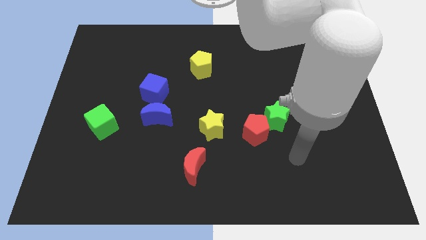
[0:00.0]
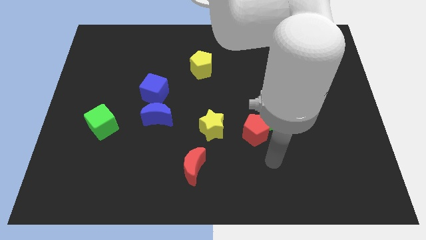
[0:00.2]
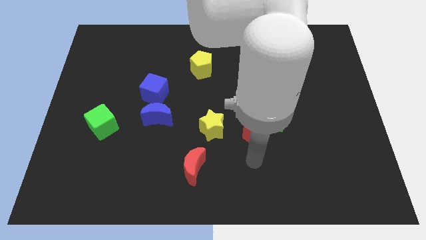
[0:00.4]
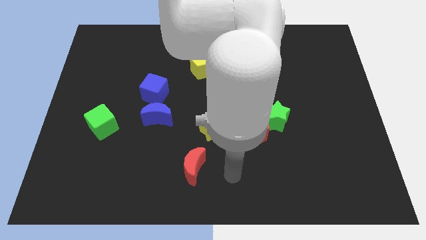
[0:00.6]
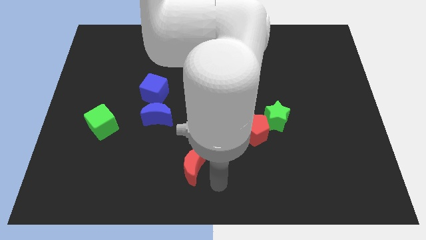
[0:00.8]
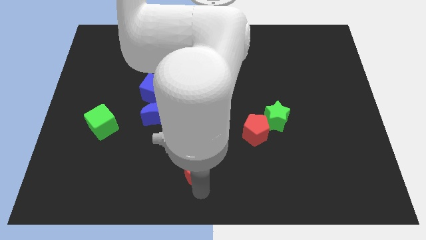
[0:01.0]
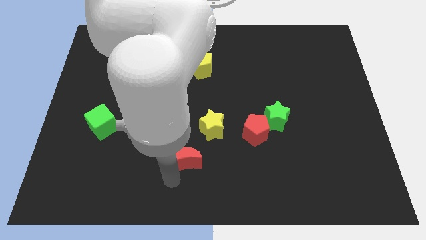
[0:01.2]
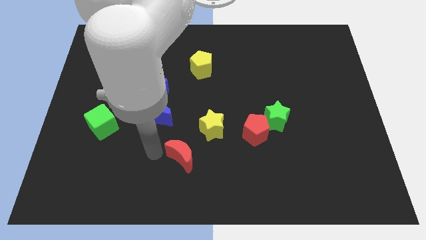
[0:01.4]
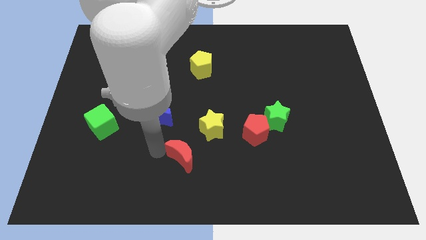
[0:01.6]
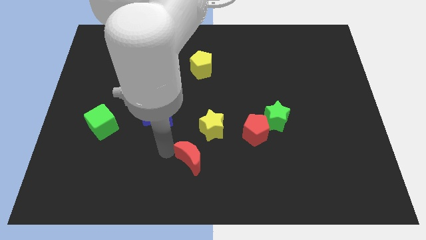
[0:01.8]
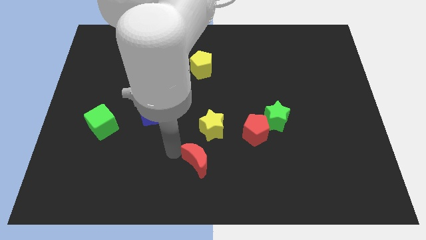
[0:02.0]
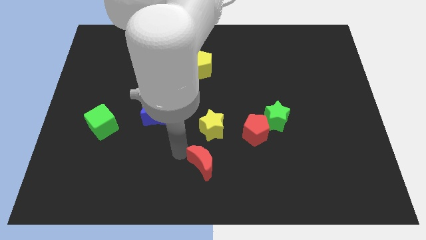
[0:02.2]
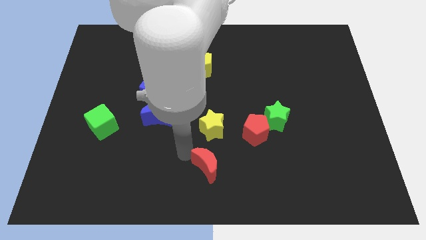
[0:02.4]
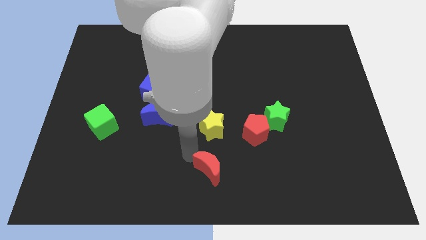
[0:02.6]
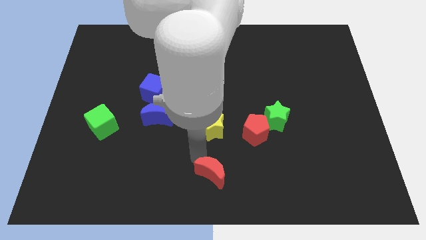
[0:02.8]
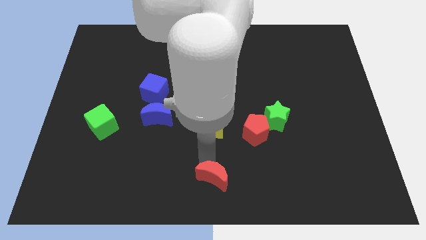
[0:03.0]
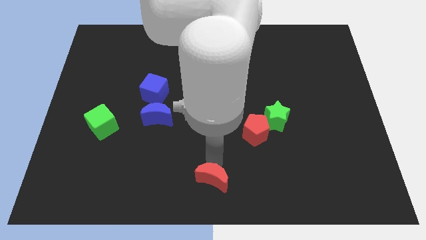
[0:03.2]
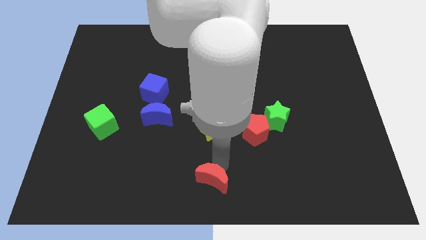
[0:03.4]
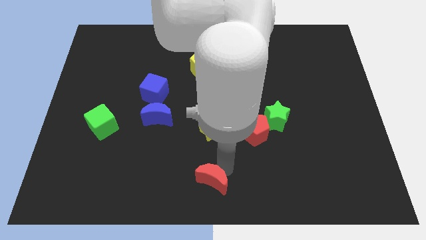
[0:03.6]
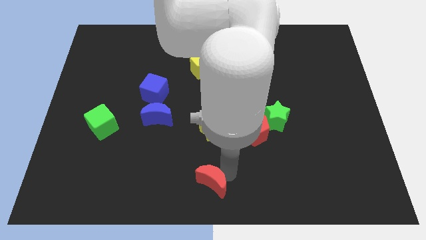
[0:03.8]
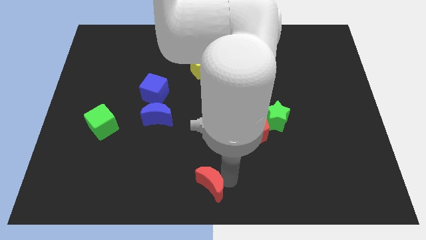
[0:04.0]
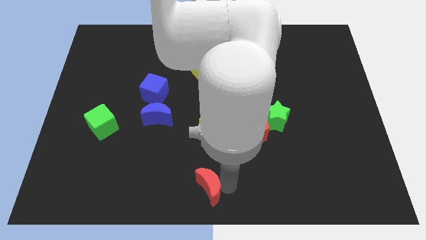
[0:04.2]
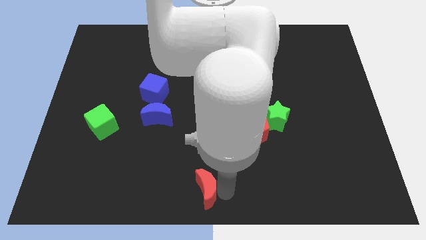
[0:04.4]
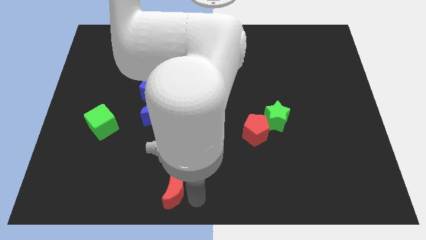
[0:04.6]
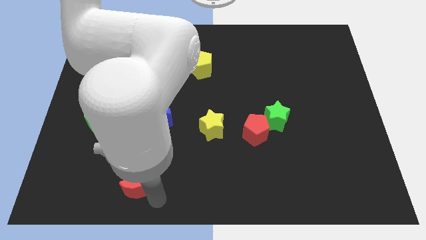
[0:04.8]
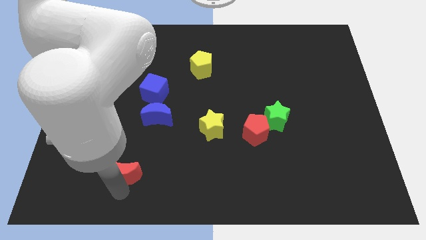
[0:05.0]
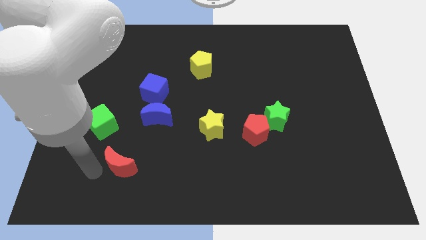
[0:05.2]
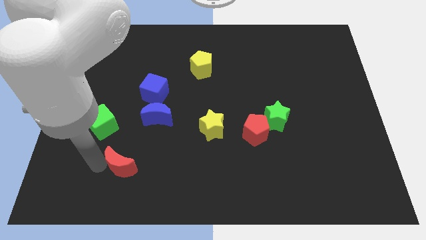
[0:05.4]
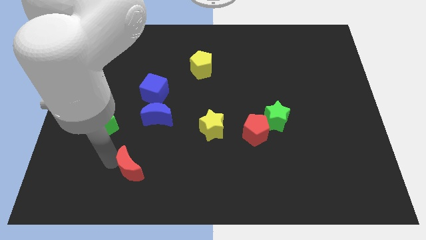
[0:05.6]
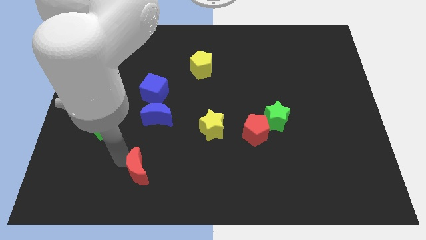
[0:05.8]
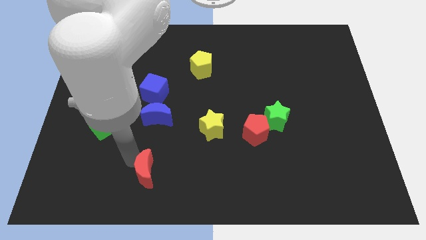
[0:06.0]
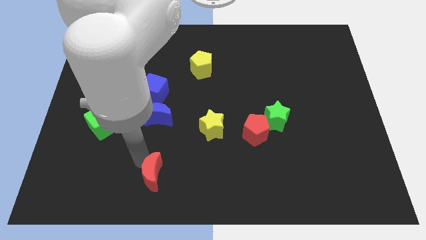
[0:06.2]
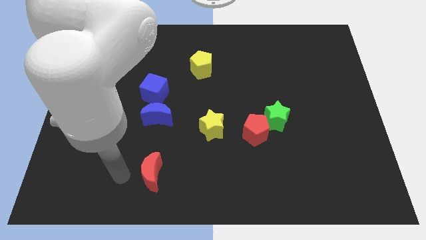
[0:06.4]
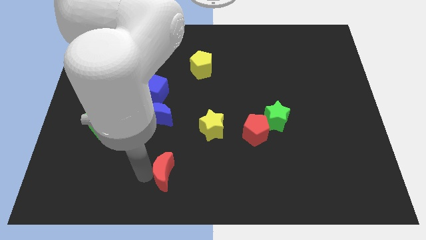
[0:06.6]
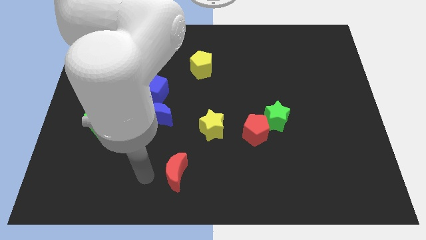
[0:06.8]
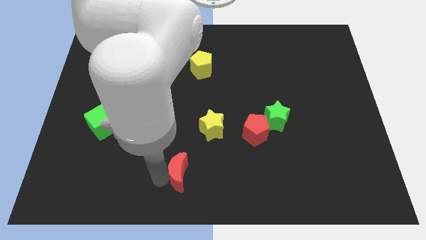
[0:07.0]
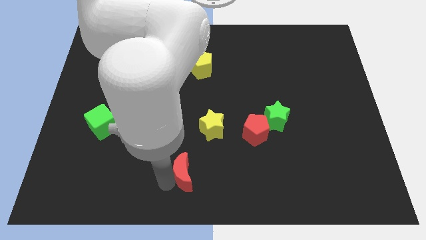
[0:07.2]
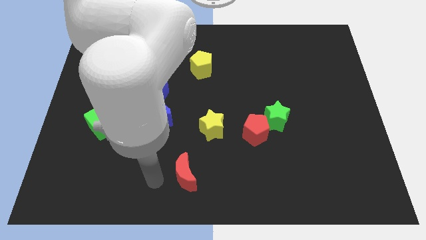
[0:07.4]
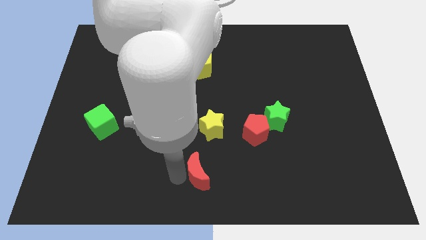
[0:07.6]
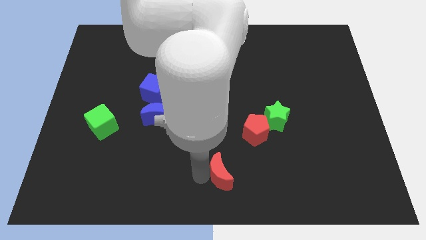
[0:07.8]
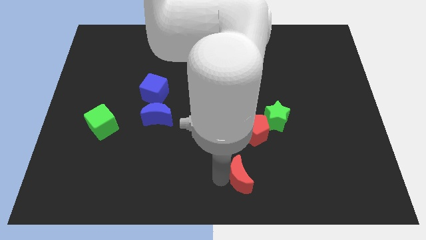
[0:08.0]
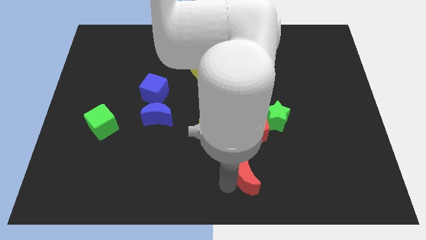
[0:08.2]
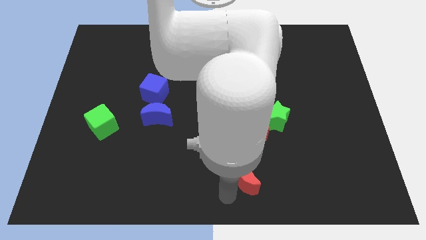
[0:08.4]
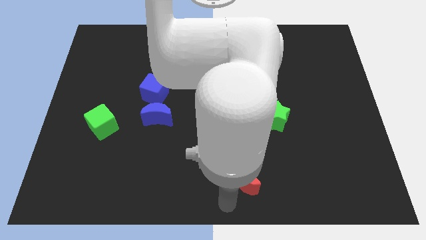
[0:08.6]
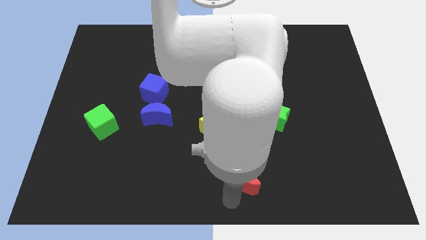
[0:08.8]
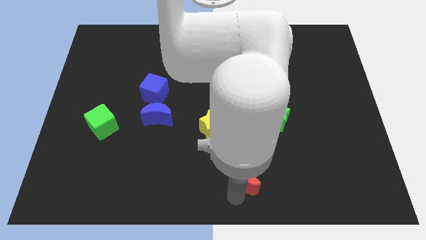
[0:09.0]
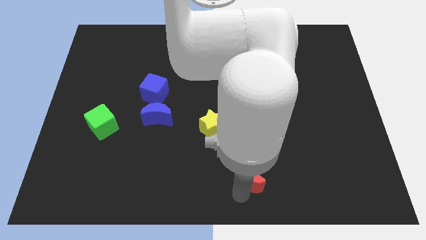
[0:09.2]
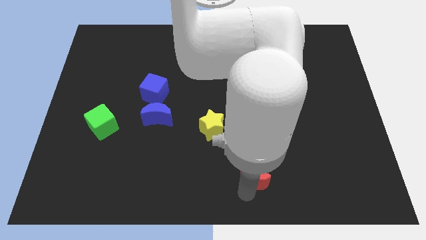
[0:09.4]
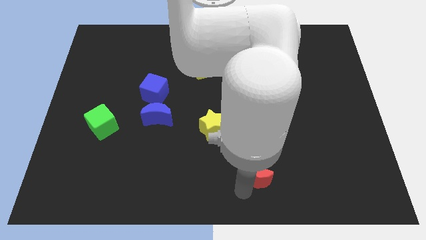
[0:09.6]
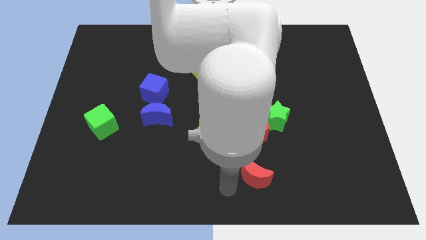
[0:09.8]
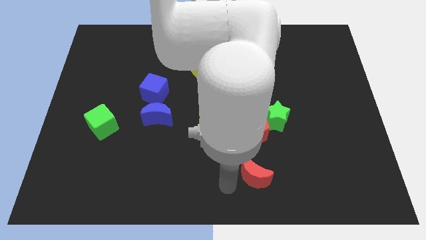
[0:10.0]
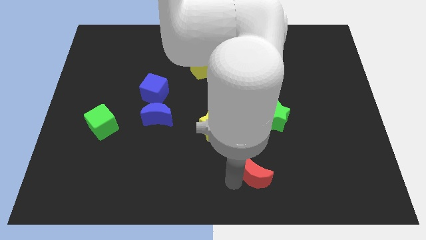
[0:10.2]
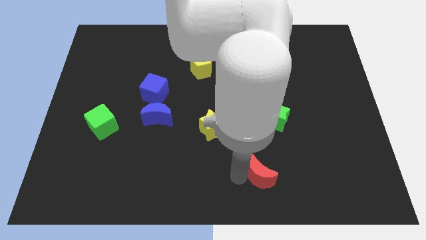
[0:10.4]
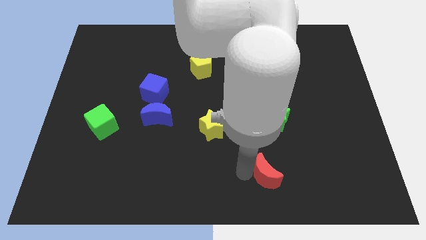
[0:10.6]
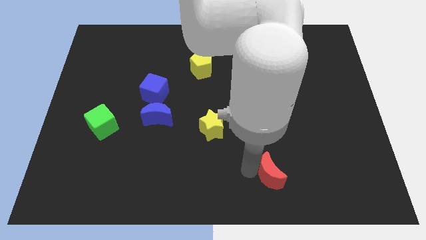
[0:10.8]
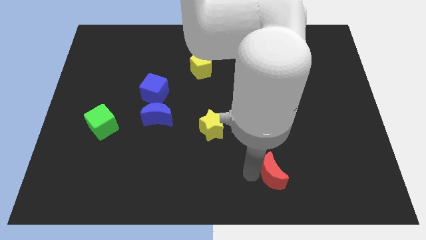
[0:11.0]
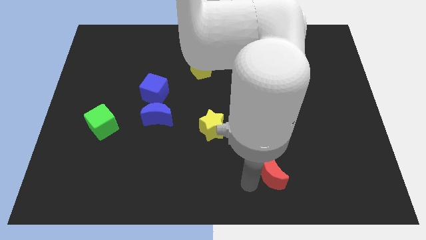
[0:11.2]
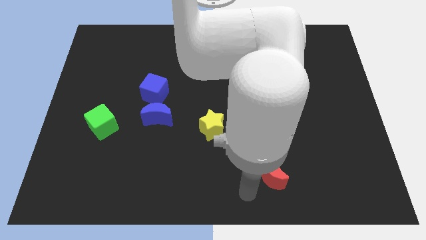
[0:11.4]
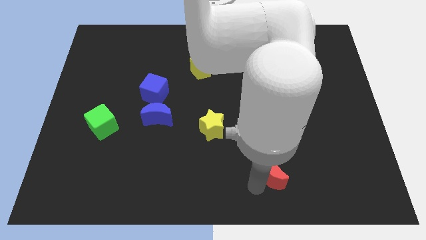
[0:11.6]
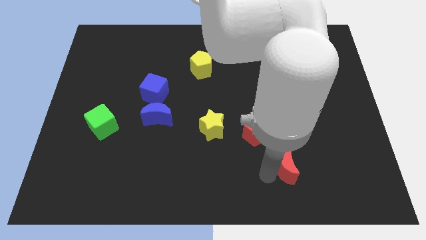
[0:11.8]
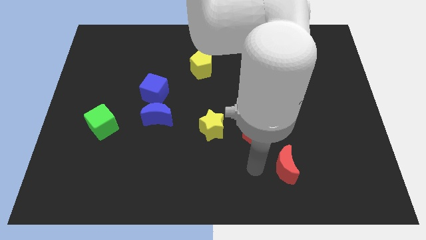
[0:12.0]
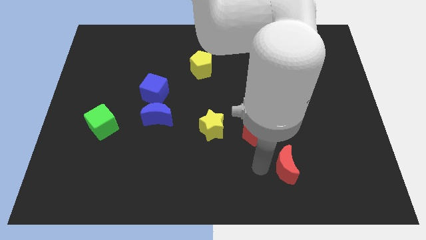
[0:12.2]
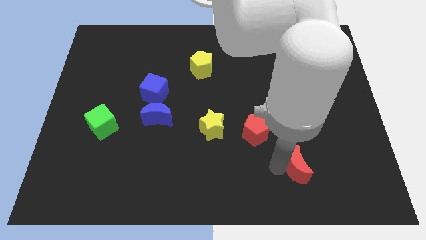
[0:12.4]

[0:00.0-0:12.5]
move the red moon to the right

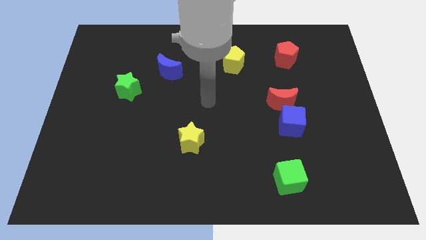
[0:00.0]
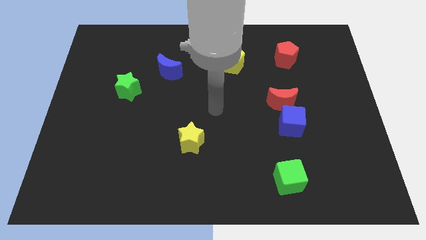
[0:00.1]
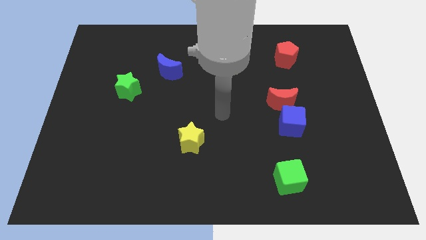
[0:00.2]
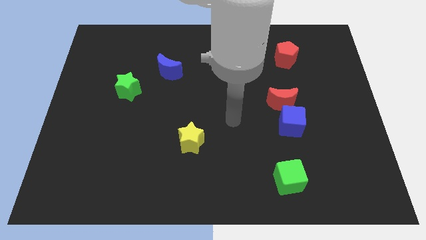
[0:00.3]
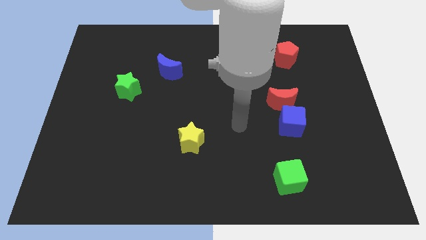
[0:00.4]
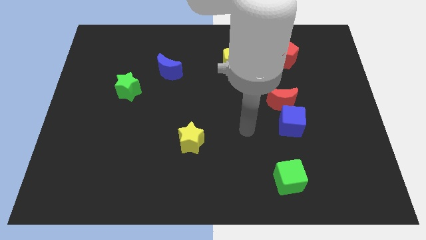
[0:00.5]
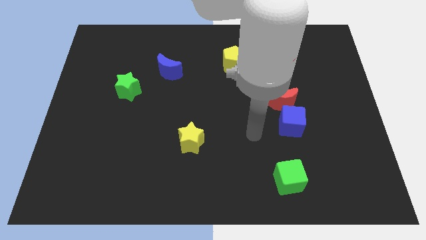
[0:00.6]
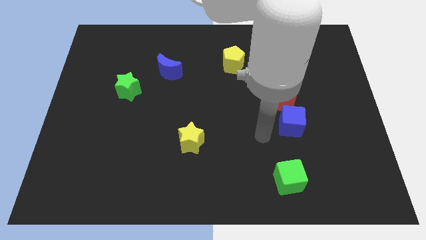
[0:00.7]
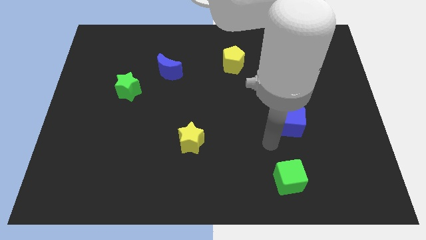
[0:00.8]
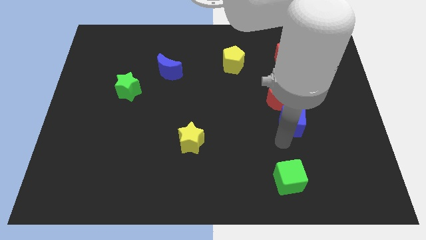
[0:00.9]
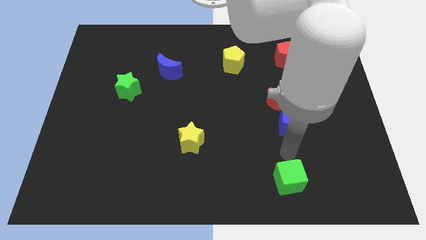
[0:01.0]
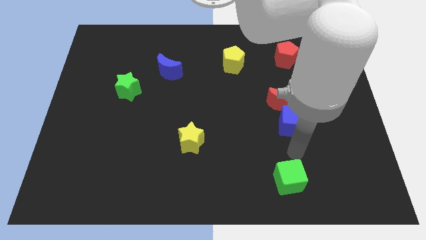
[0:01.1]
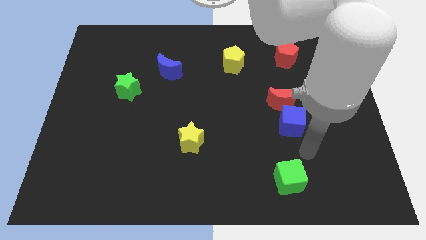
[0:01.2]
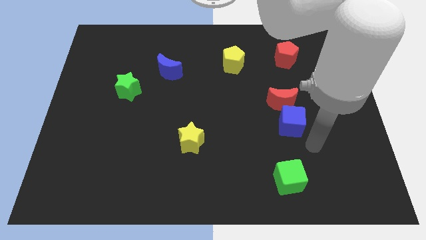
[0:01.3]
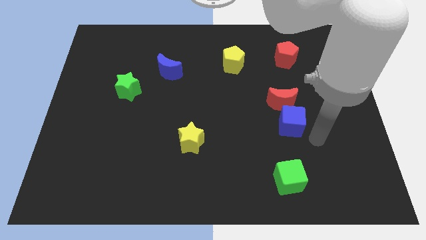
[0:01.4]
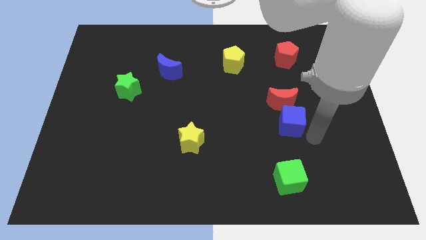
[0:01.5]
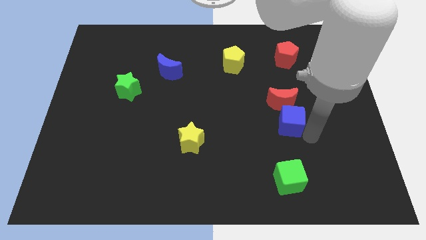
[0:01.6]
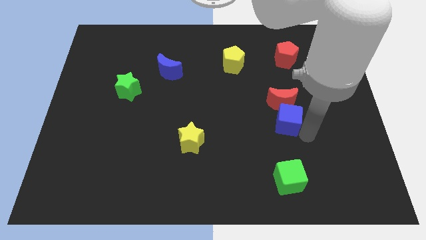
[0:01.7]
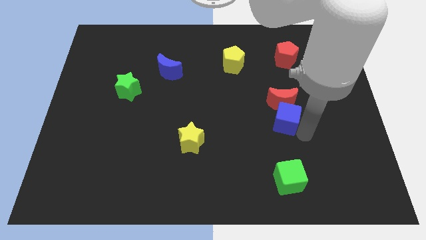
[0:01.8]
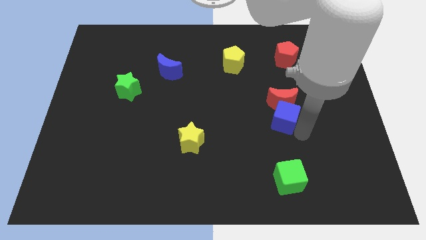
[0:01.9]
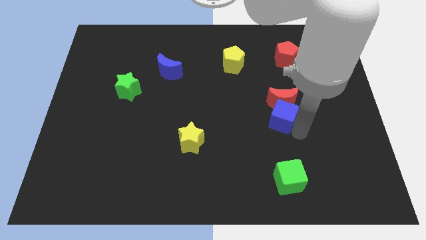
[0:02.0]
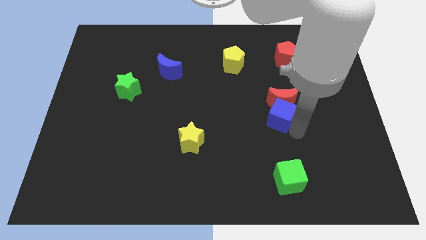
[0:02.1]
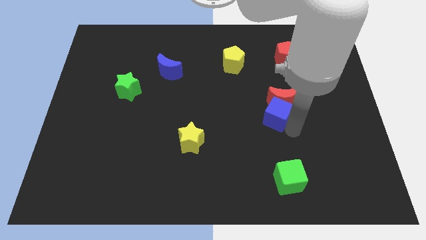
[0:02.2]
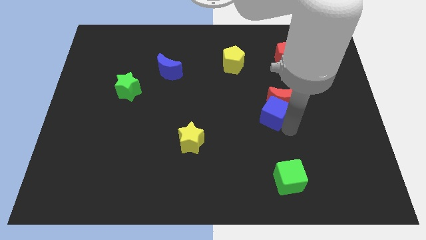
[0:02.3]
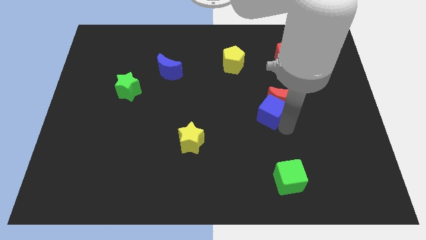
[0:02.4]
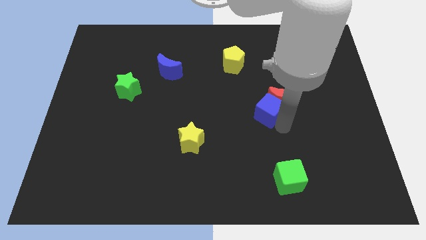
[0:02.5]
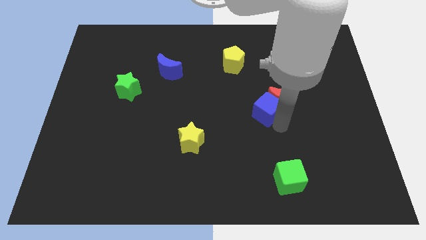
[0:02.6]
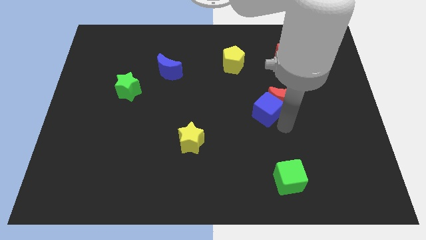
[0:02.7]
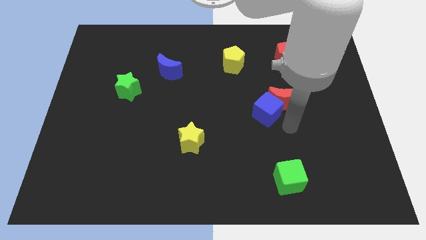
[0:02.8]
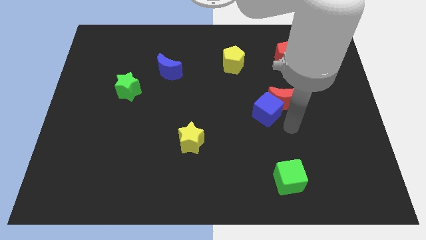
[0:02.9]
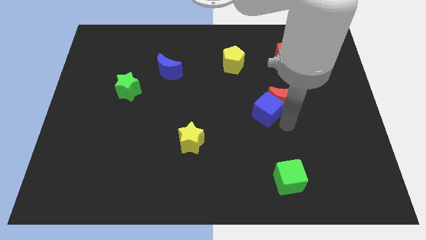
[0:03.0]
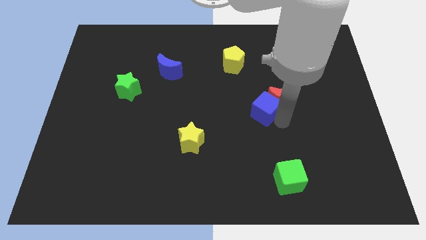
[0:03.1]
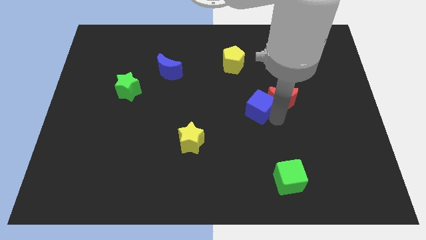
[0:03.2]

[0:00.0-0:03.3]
move the blue cube slightly up and then to the left
